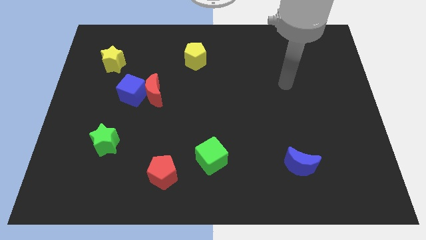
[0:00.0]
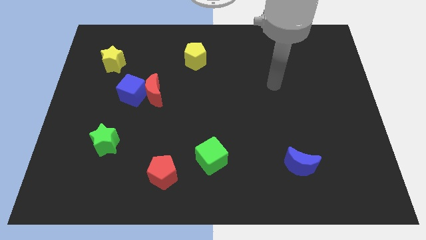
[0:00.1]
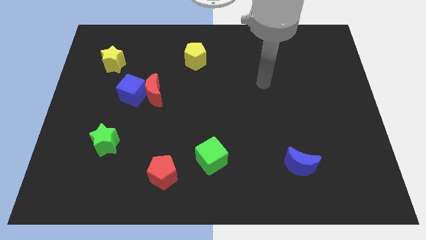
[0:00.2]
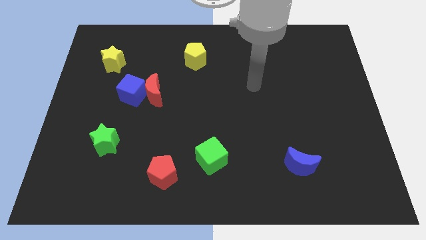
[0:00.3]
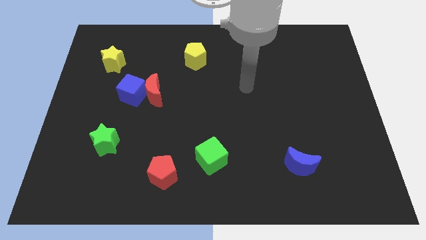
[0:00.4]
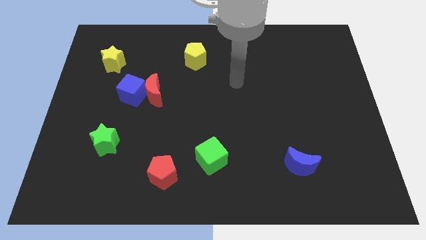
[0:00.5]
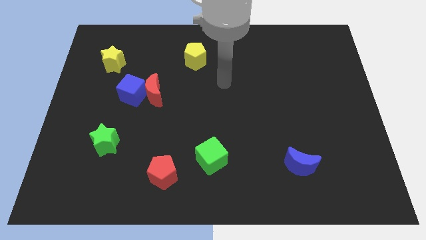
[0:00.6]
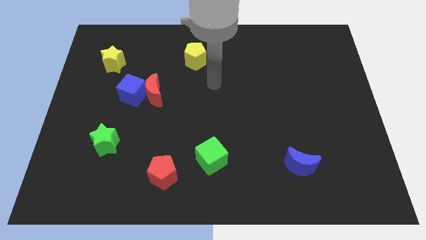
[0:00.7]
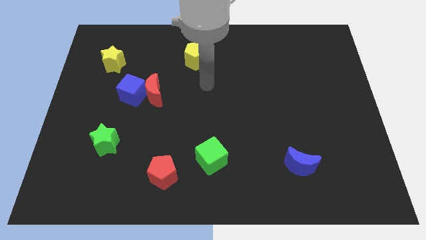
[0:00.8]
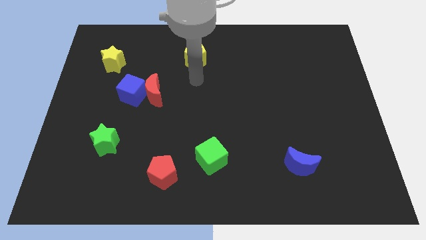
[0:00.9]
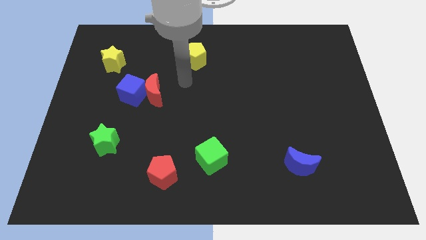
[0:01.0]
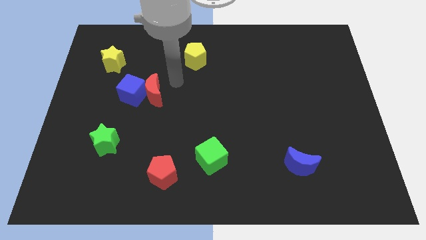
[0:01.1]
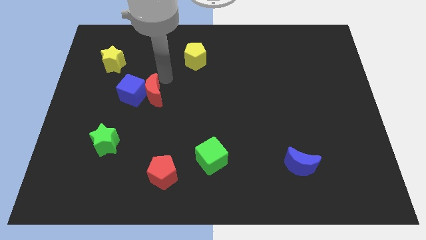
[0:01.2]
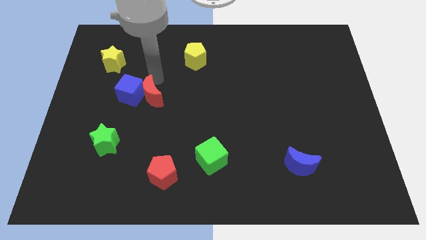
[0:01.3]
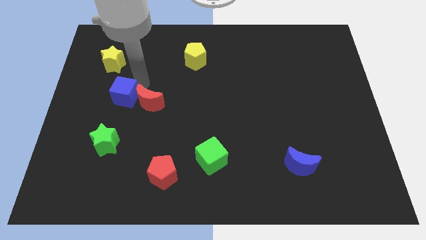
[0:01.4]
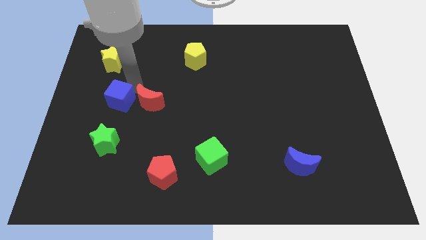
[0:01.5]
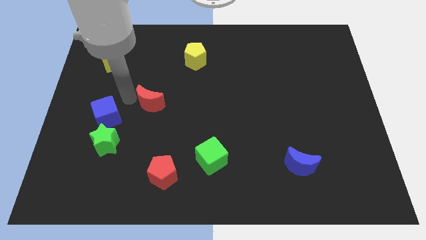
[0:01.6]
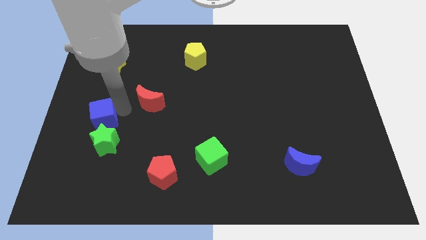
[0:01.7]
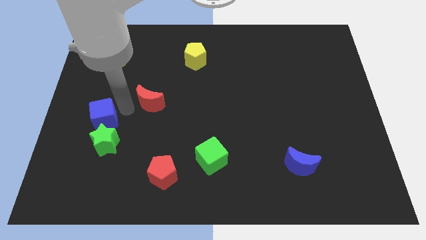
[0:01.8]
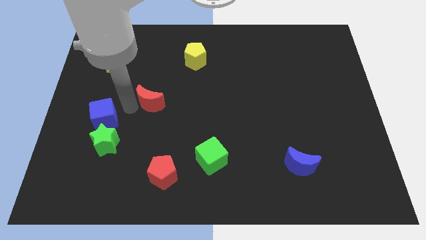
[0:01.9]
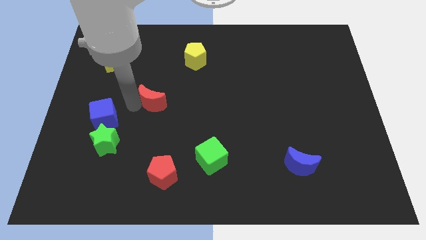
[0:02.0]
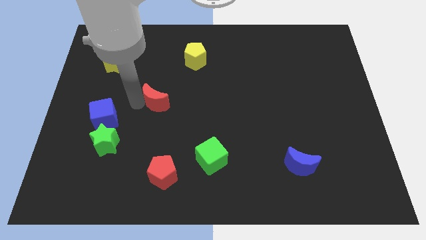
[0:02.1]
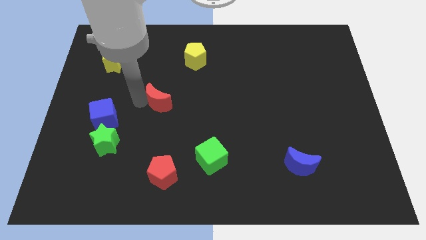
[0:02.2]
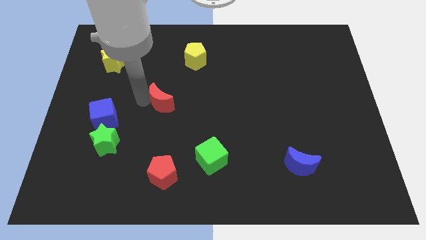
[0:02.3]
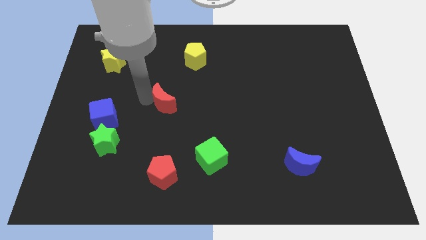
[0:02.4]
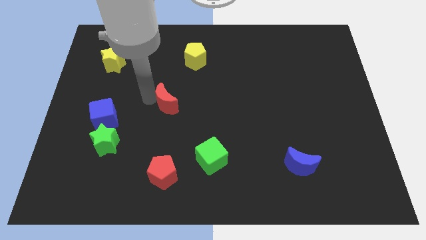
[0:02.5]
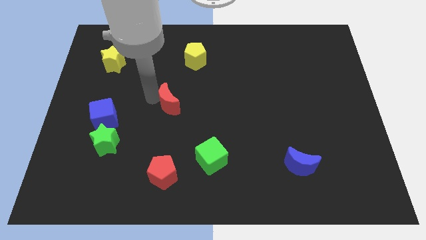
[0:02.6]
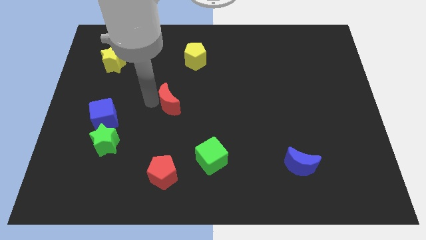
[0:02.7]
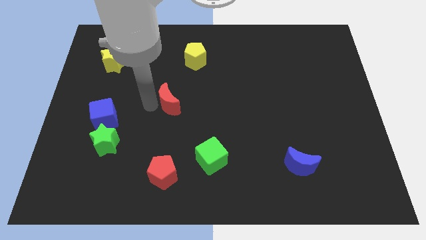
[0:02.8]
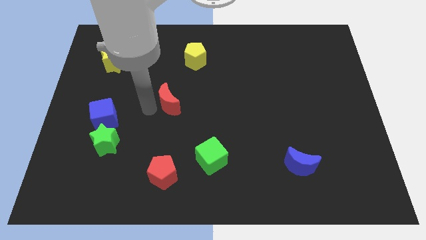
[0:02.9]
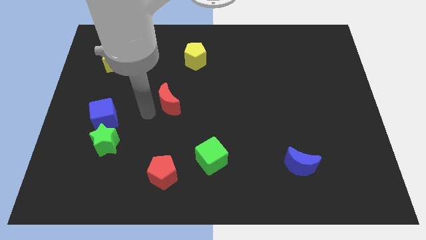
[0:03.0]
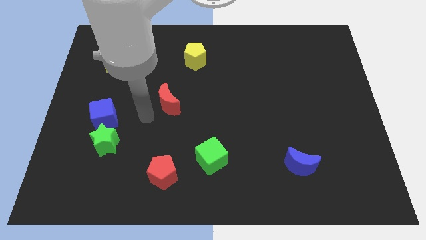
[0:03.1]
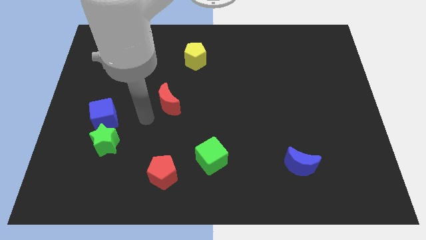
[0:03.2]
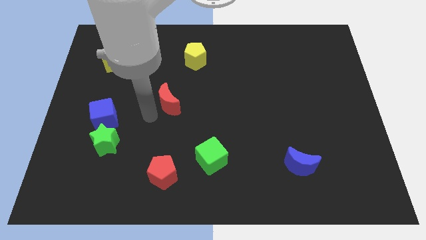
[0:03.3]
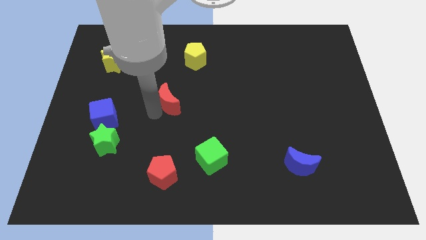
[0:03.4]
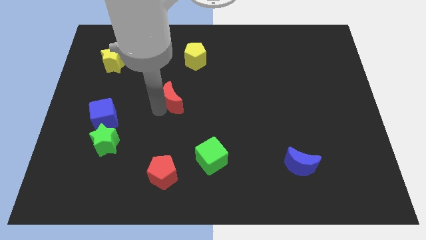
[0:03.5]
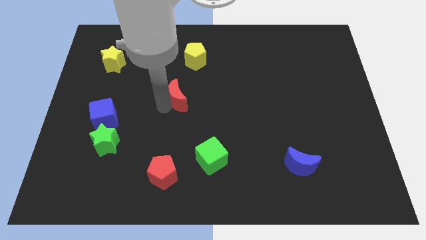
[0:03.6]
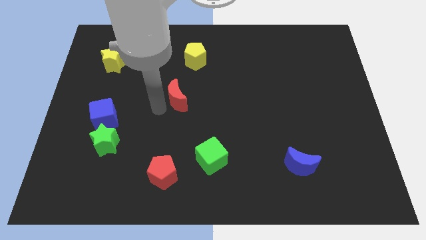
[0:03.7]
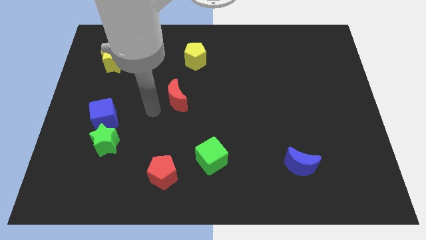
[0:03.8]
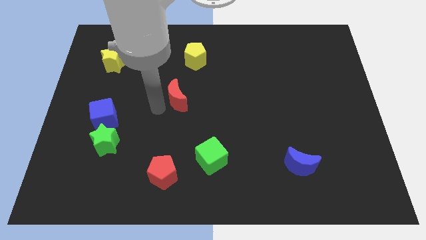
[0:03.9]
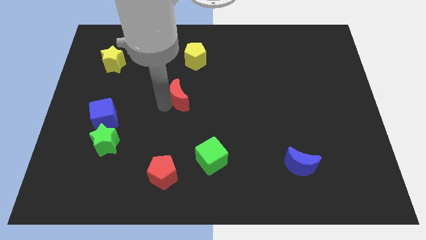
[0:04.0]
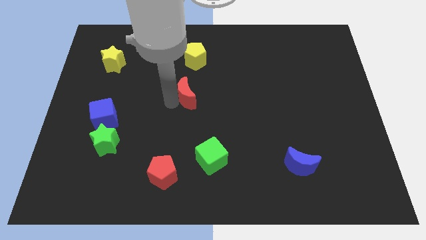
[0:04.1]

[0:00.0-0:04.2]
push the red moon a little bit to the right

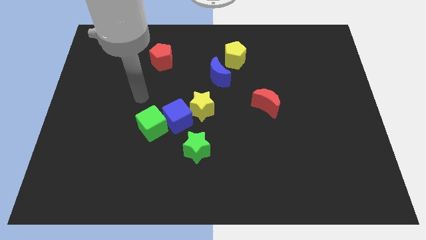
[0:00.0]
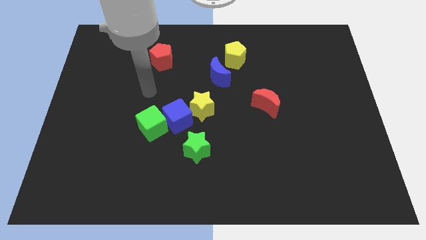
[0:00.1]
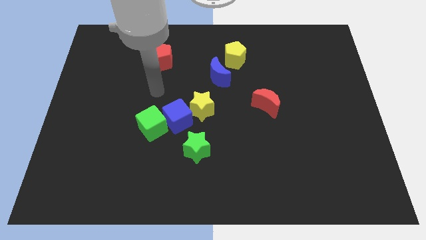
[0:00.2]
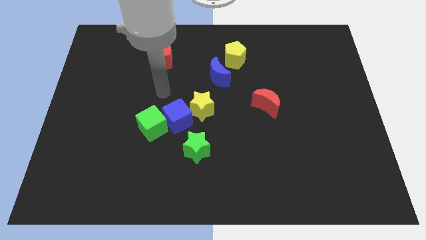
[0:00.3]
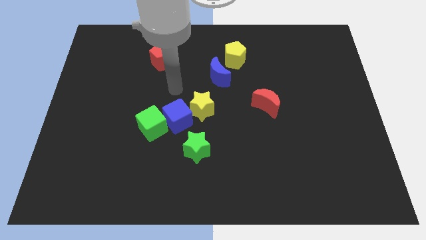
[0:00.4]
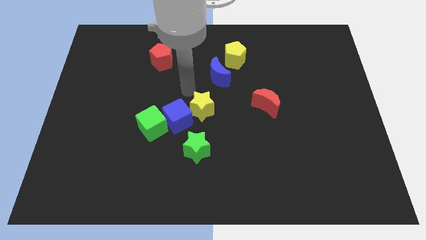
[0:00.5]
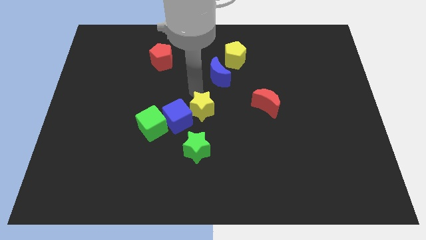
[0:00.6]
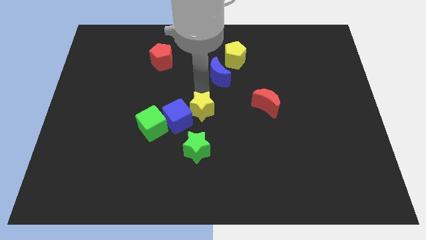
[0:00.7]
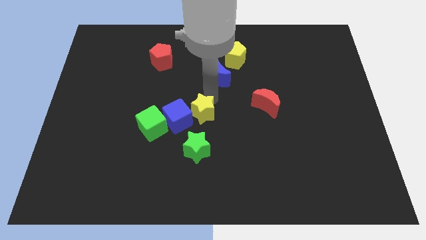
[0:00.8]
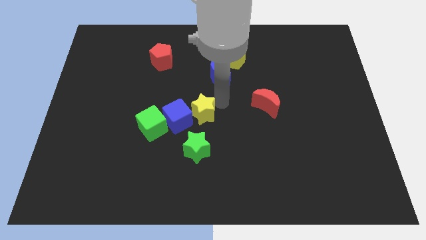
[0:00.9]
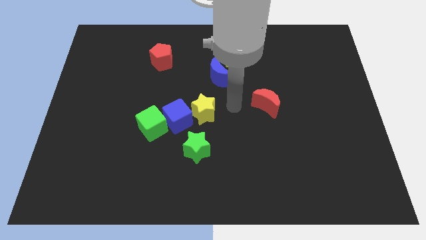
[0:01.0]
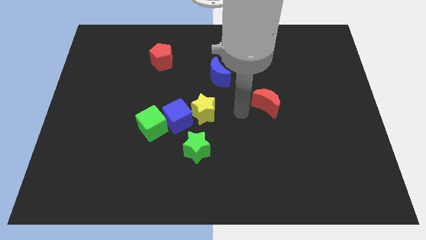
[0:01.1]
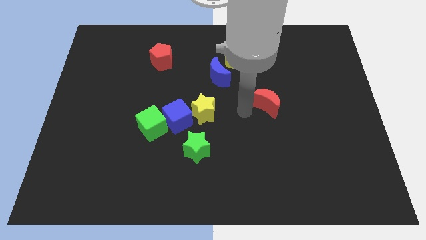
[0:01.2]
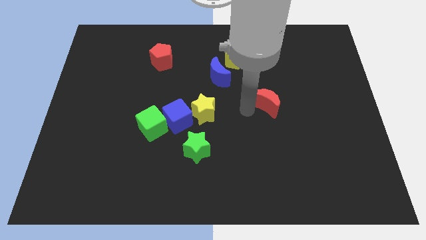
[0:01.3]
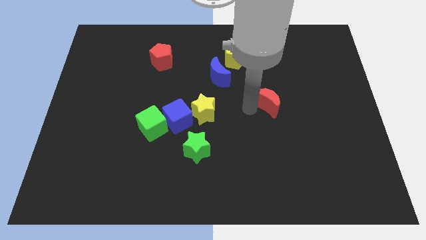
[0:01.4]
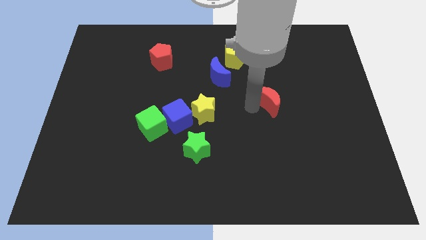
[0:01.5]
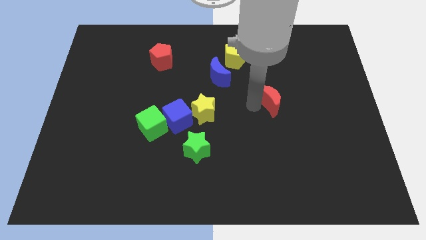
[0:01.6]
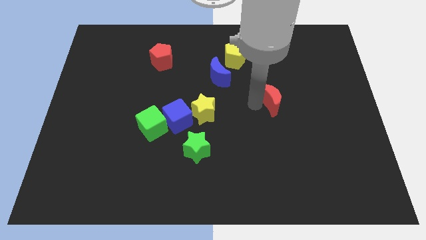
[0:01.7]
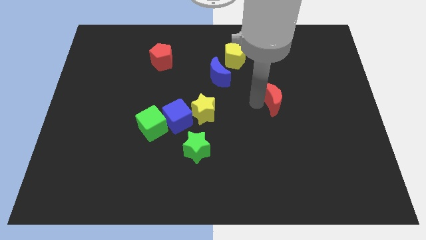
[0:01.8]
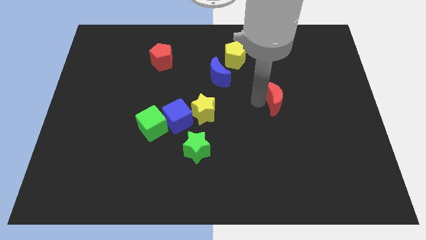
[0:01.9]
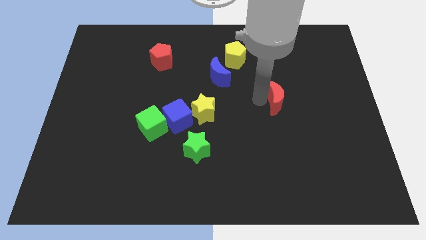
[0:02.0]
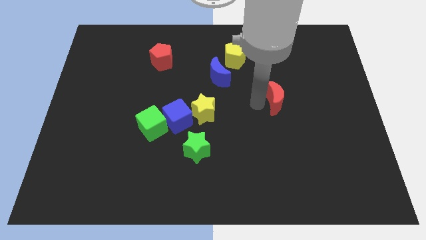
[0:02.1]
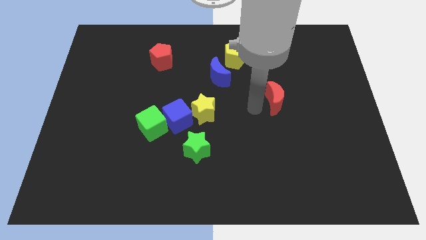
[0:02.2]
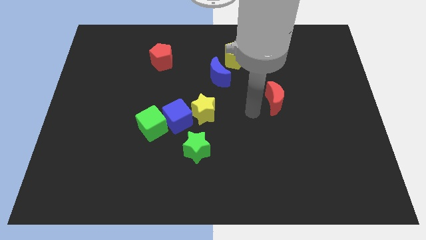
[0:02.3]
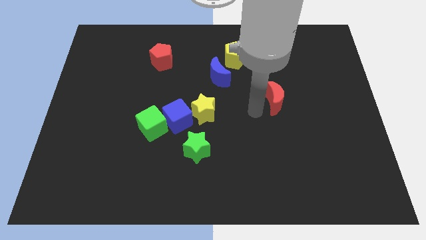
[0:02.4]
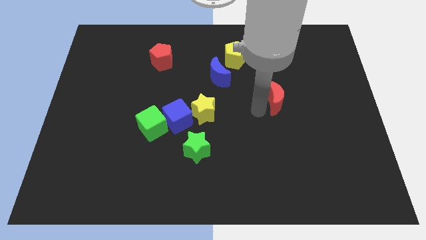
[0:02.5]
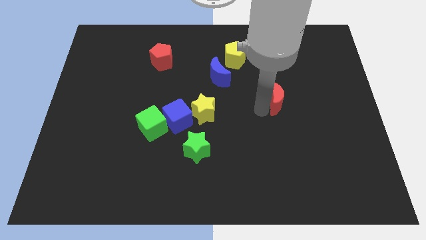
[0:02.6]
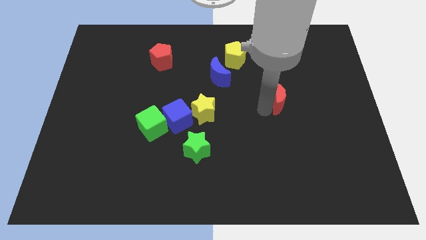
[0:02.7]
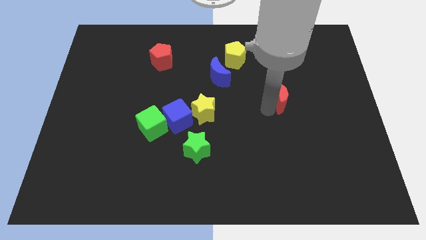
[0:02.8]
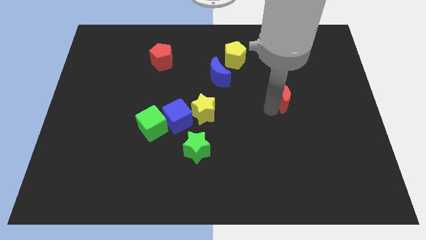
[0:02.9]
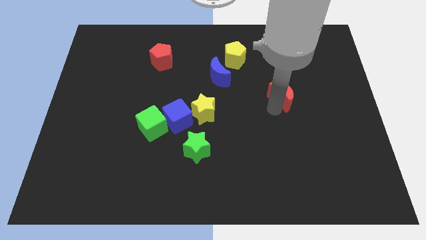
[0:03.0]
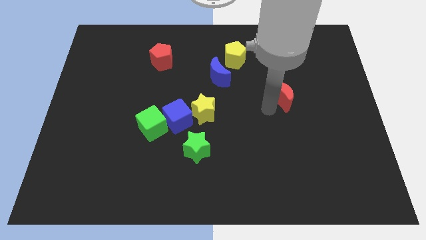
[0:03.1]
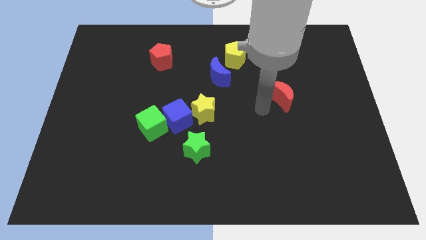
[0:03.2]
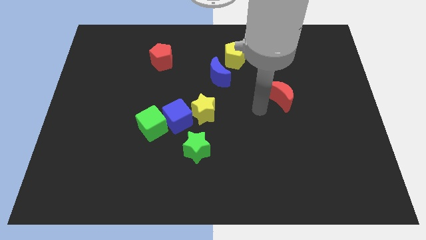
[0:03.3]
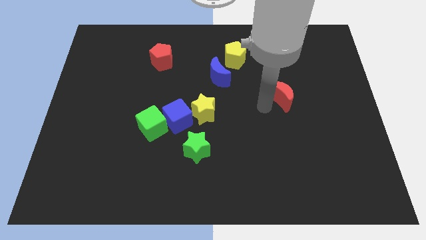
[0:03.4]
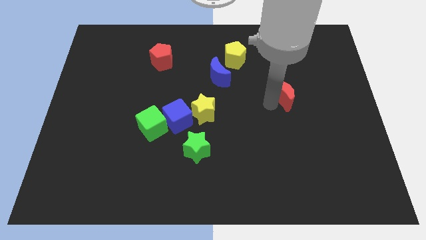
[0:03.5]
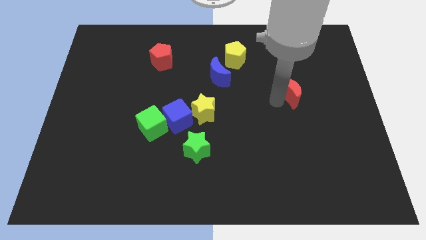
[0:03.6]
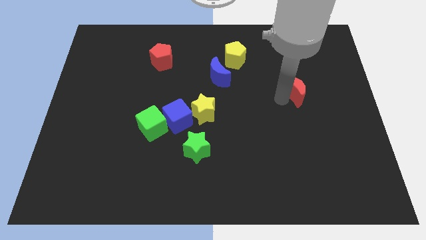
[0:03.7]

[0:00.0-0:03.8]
slightly slide the red moon upwards and to the right diagonally

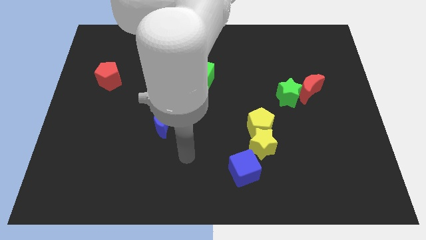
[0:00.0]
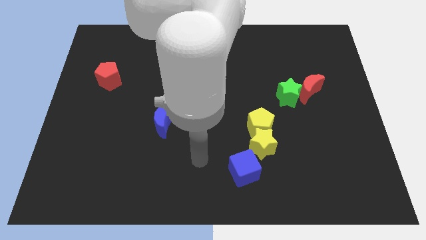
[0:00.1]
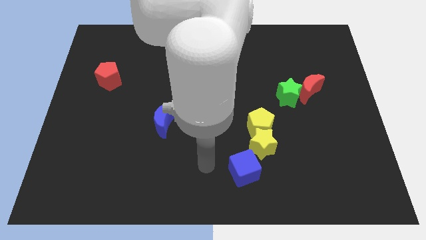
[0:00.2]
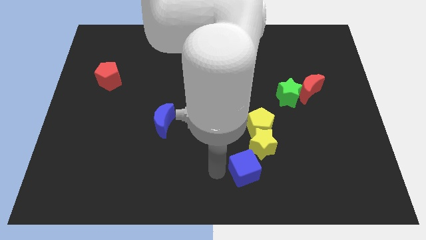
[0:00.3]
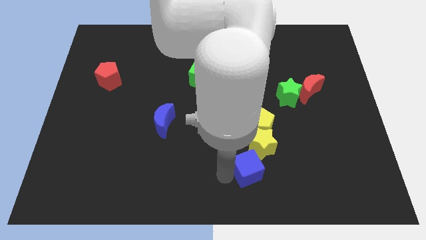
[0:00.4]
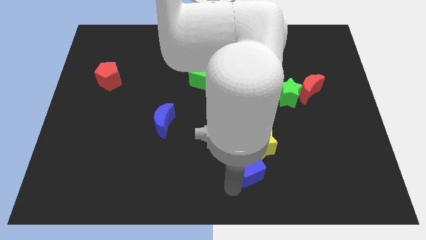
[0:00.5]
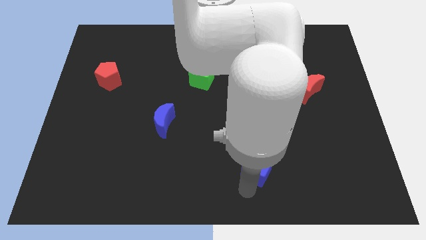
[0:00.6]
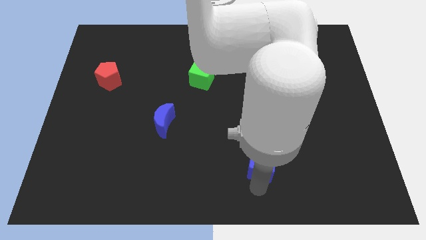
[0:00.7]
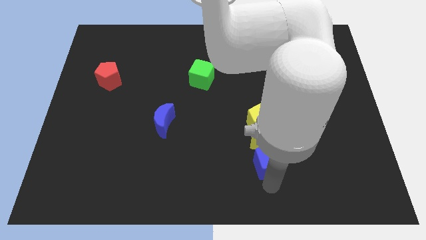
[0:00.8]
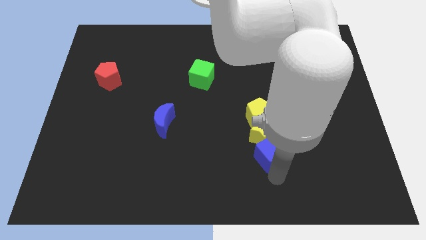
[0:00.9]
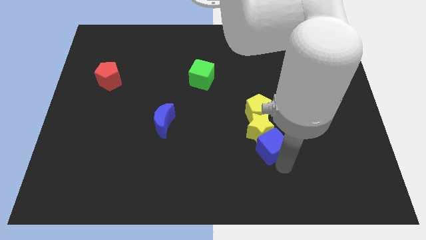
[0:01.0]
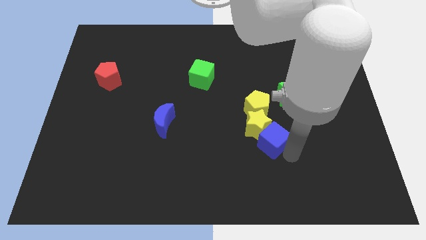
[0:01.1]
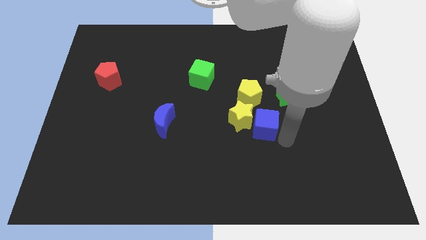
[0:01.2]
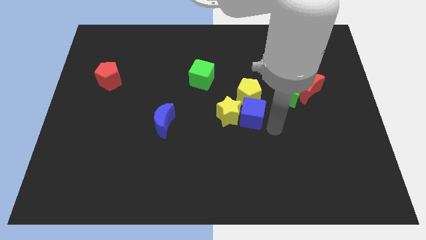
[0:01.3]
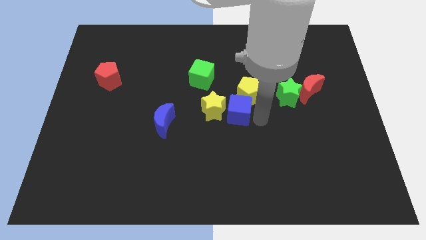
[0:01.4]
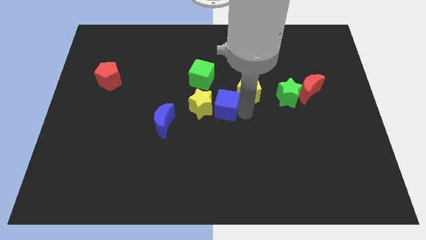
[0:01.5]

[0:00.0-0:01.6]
slightly slide the yellow star left
